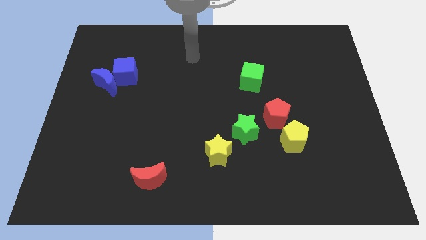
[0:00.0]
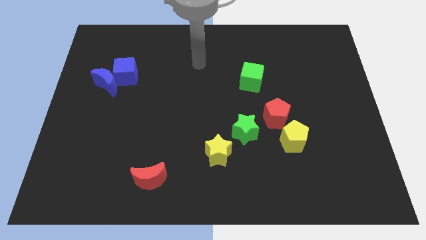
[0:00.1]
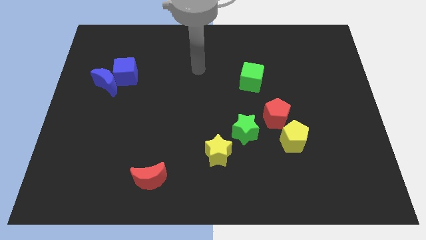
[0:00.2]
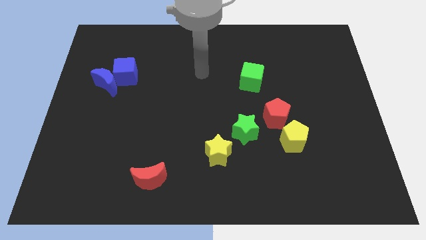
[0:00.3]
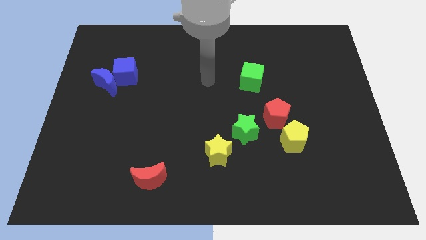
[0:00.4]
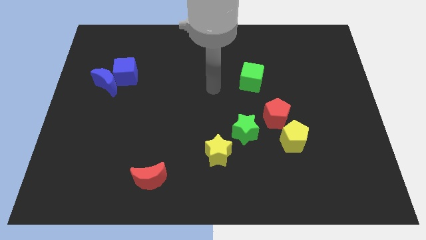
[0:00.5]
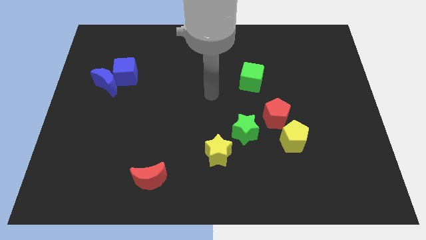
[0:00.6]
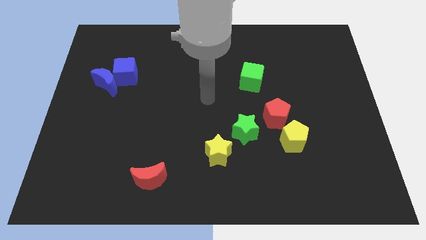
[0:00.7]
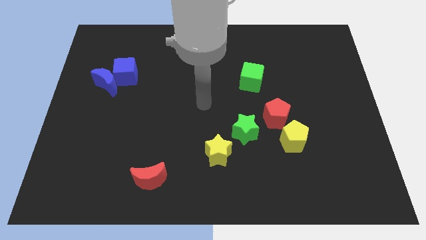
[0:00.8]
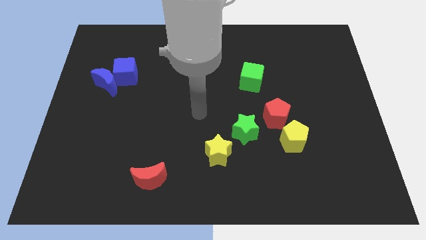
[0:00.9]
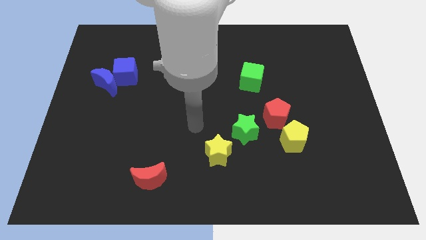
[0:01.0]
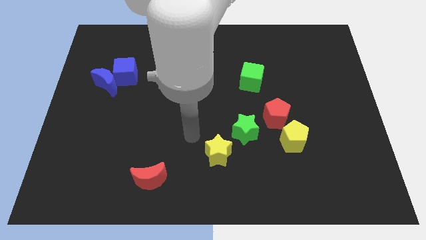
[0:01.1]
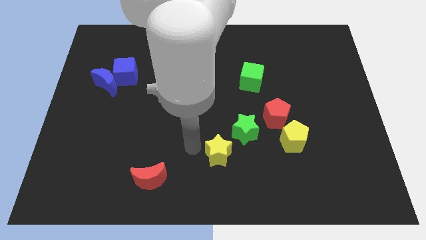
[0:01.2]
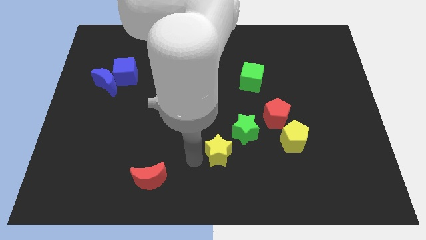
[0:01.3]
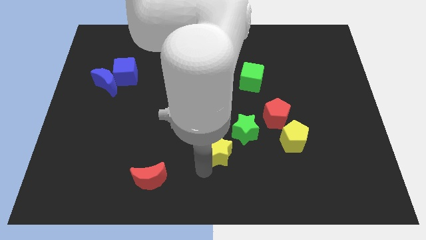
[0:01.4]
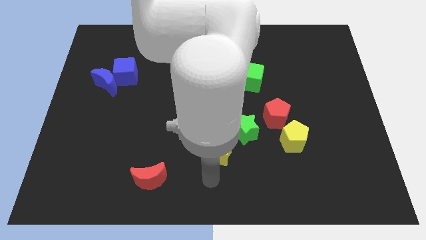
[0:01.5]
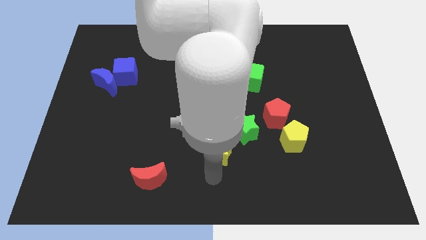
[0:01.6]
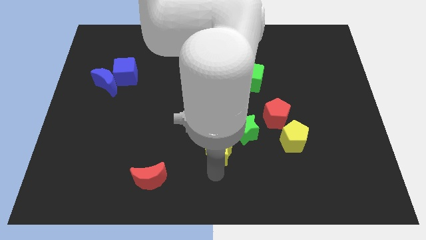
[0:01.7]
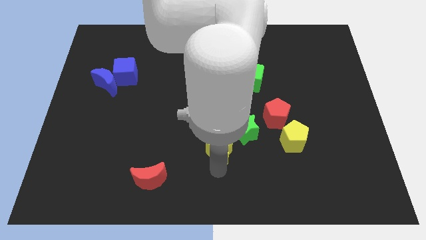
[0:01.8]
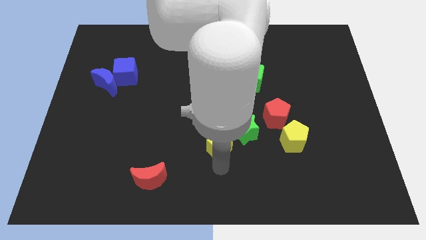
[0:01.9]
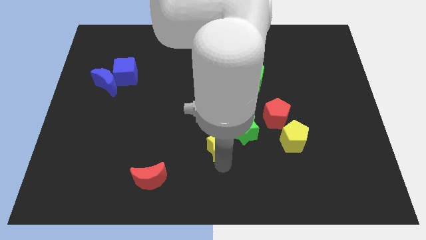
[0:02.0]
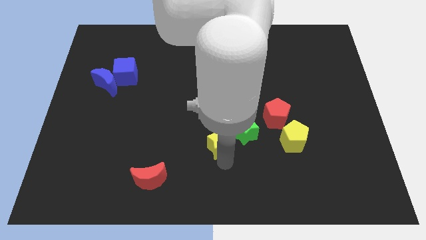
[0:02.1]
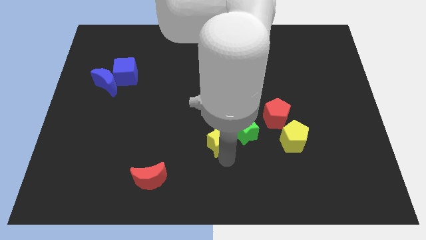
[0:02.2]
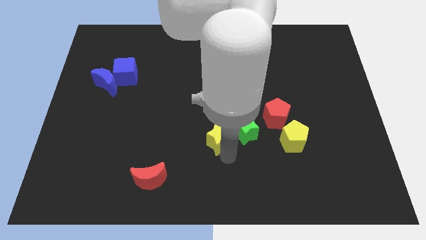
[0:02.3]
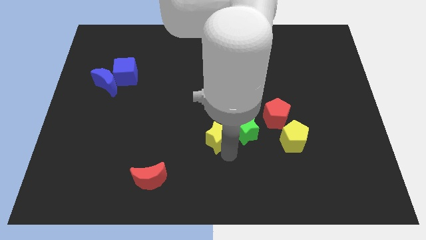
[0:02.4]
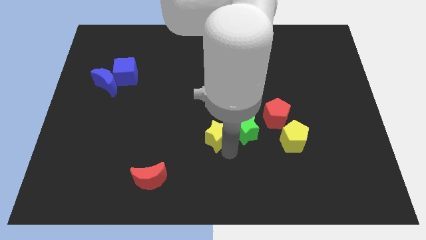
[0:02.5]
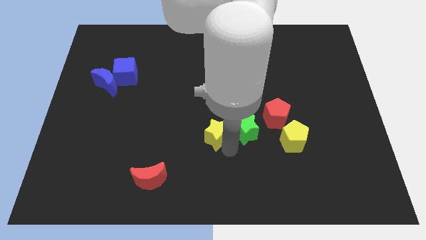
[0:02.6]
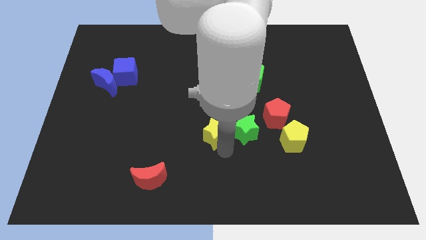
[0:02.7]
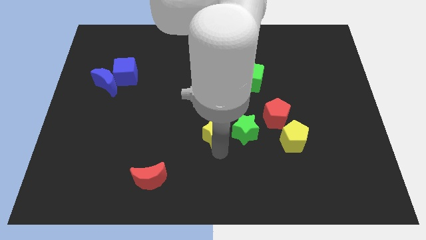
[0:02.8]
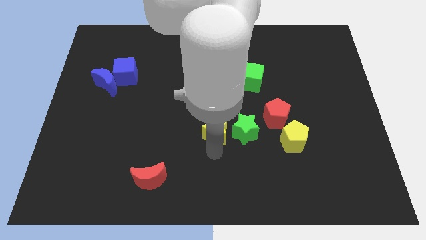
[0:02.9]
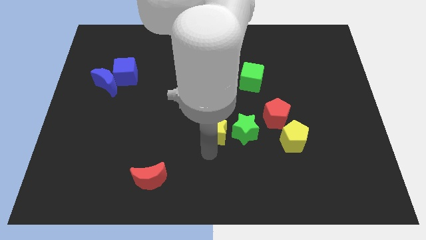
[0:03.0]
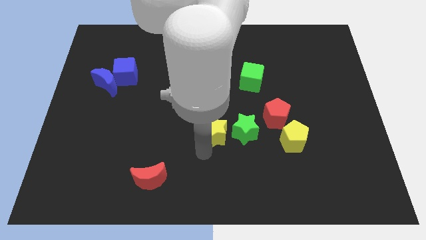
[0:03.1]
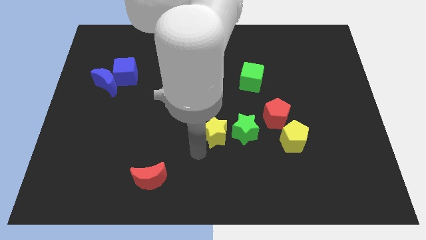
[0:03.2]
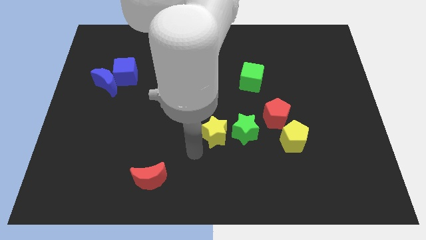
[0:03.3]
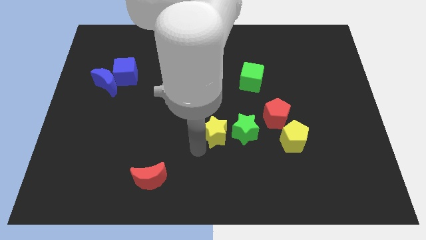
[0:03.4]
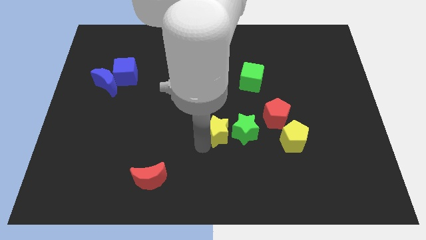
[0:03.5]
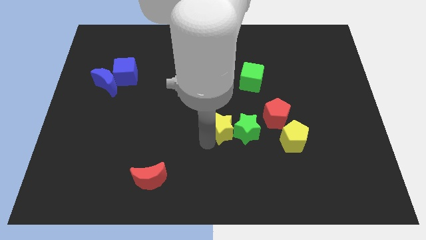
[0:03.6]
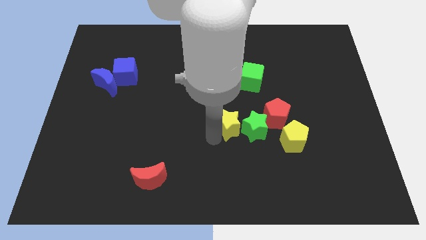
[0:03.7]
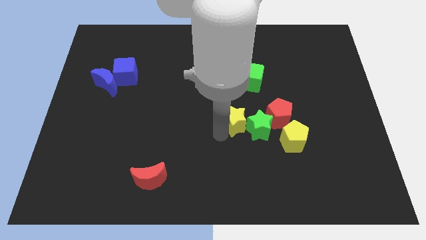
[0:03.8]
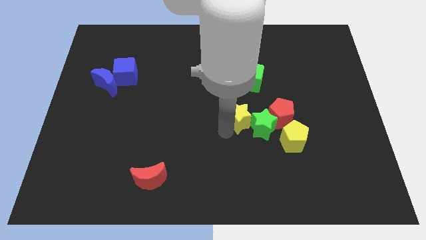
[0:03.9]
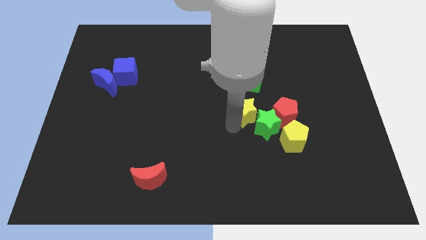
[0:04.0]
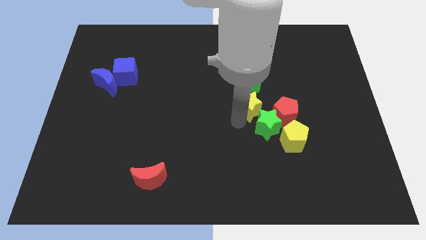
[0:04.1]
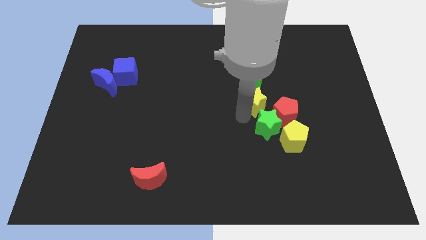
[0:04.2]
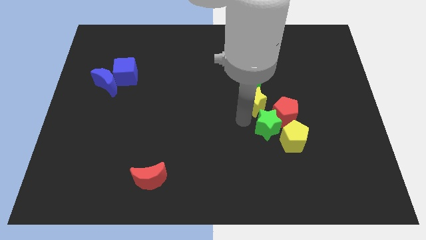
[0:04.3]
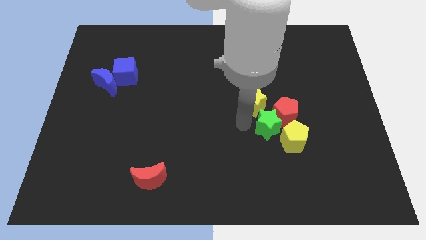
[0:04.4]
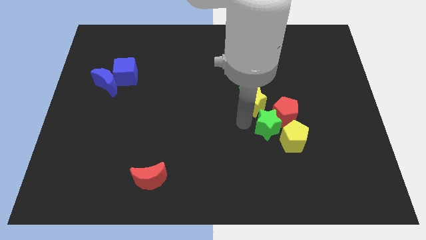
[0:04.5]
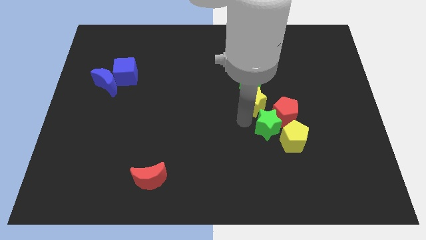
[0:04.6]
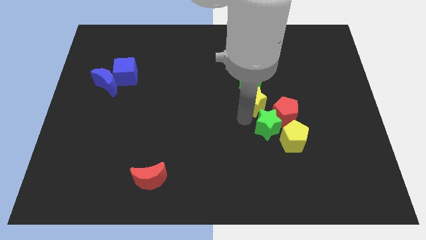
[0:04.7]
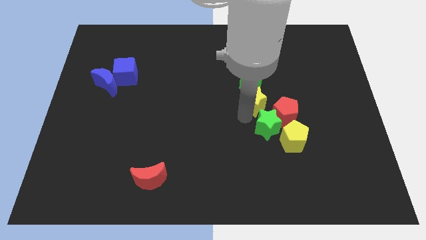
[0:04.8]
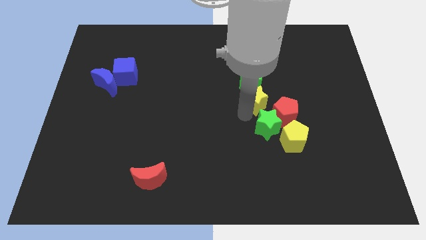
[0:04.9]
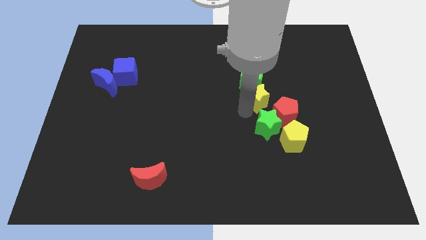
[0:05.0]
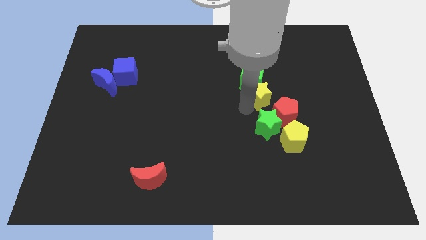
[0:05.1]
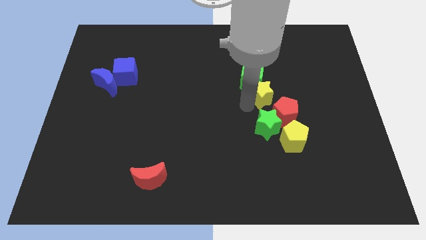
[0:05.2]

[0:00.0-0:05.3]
slide the yellow star above the red pentagon
